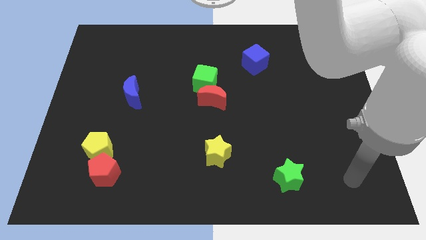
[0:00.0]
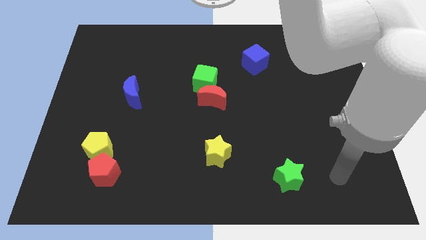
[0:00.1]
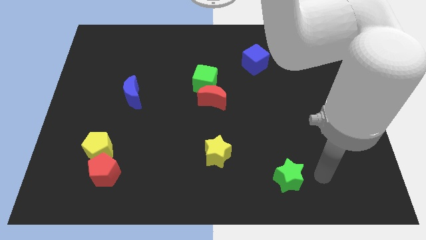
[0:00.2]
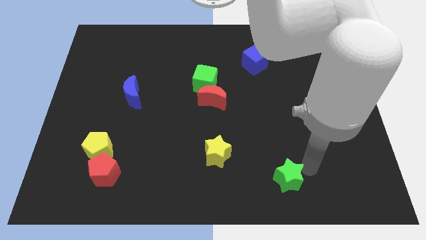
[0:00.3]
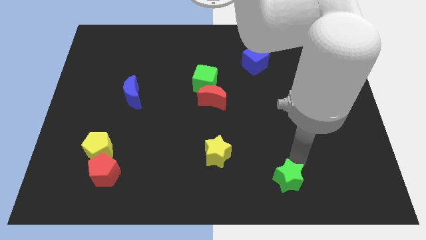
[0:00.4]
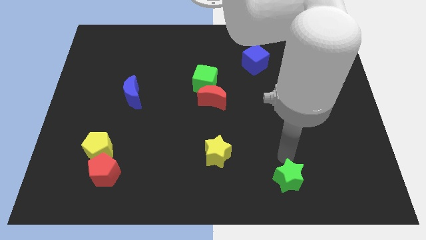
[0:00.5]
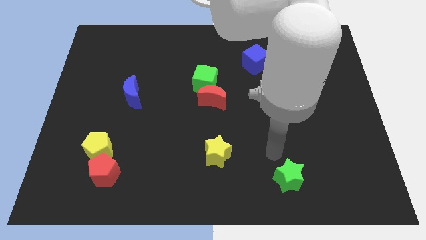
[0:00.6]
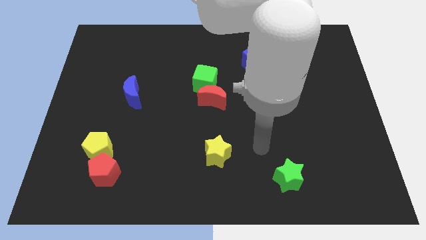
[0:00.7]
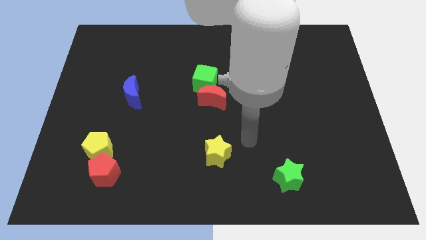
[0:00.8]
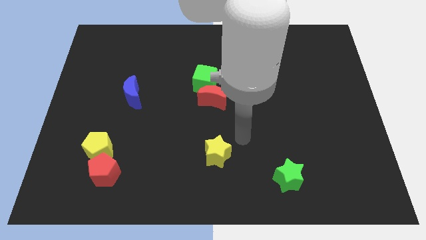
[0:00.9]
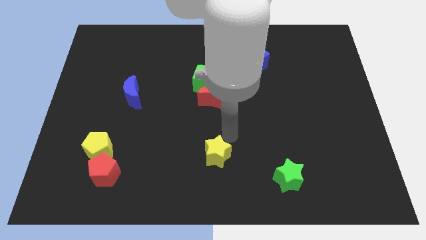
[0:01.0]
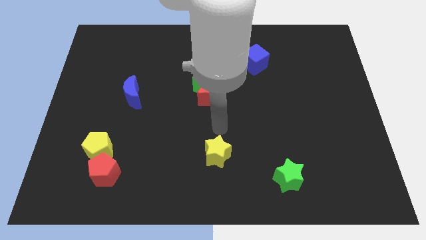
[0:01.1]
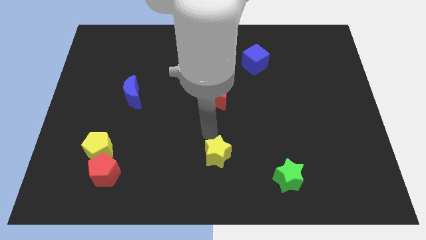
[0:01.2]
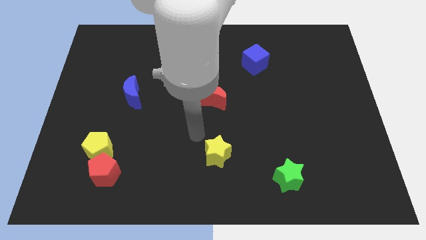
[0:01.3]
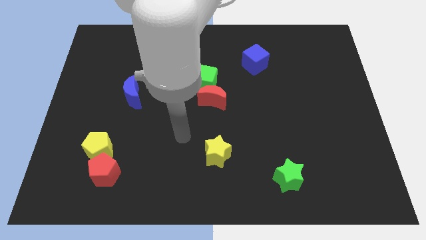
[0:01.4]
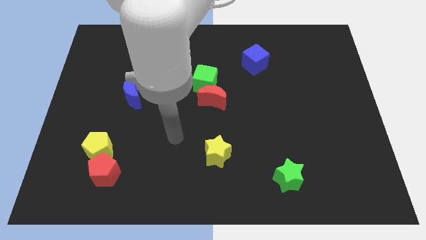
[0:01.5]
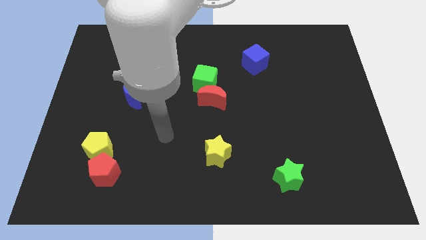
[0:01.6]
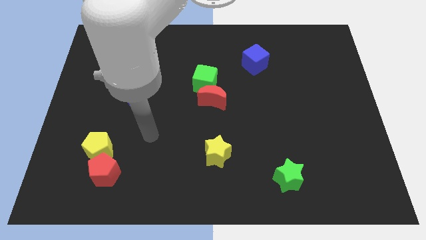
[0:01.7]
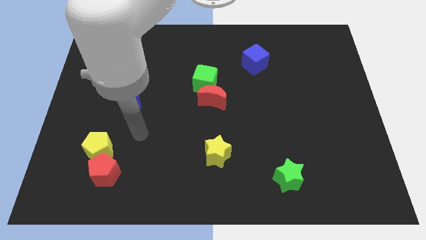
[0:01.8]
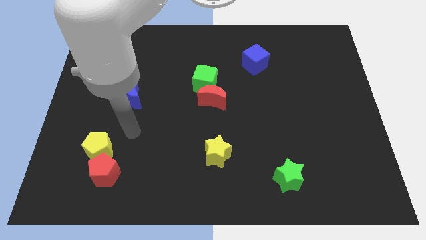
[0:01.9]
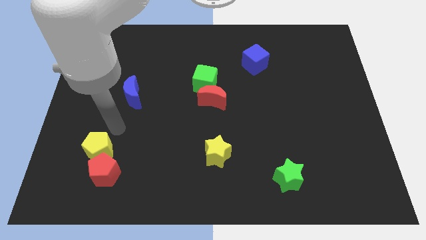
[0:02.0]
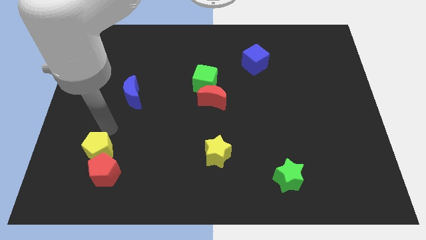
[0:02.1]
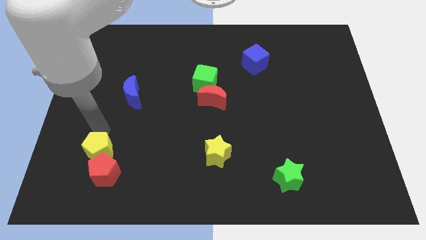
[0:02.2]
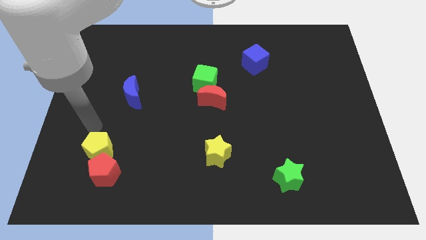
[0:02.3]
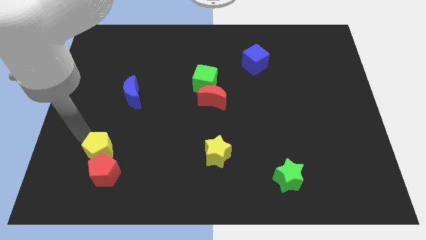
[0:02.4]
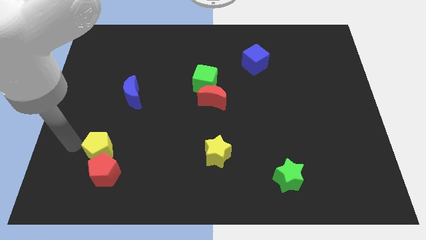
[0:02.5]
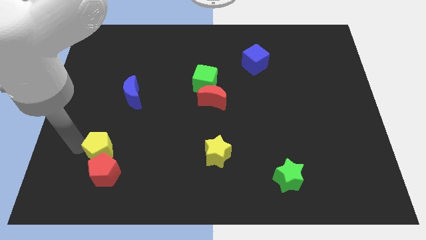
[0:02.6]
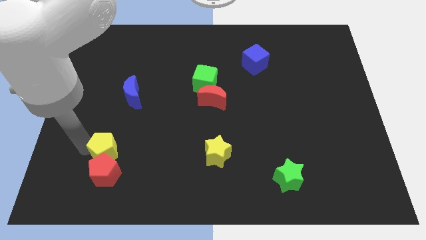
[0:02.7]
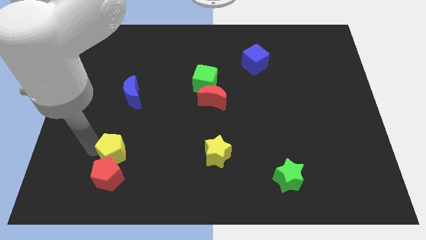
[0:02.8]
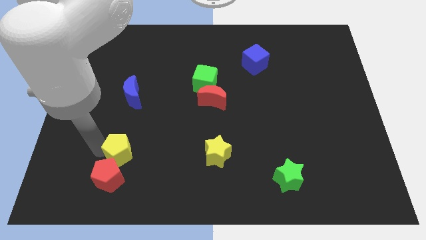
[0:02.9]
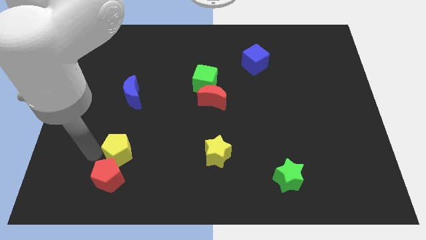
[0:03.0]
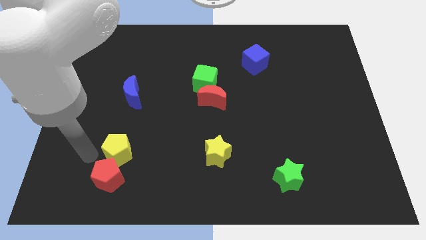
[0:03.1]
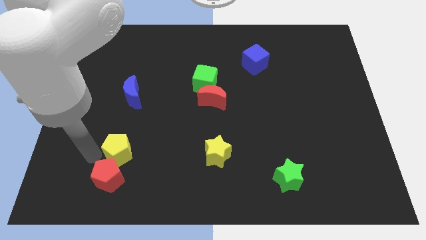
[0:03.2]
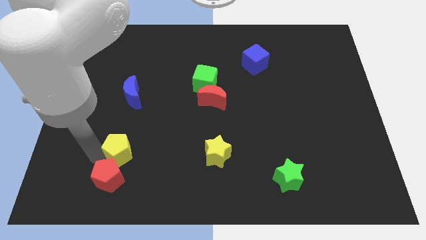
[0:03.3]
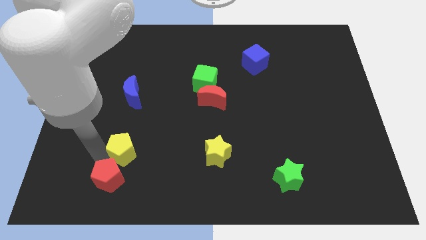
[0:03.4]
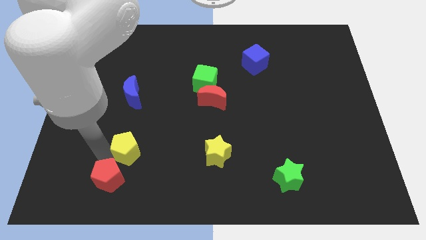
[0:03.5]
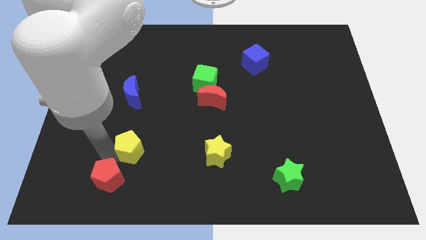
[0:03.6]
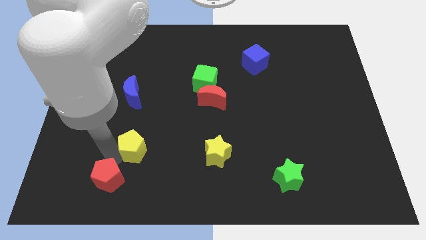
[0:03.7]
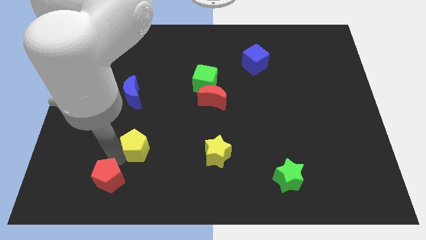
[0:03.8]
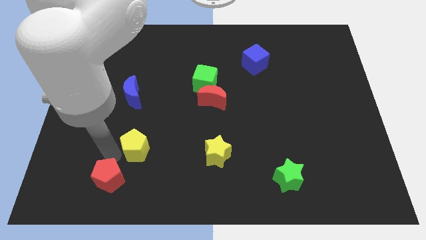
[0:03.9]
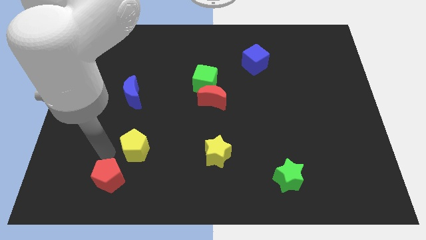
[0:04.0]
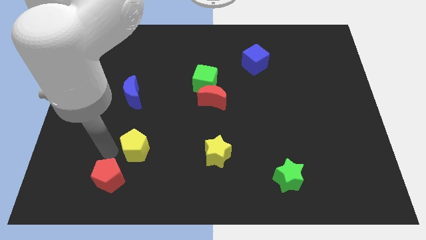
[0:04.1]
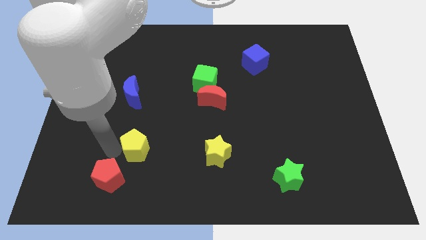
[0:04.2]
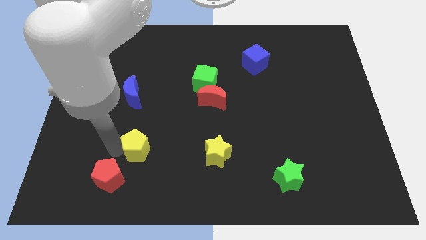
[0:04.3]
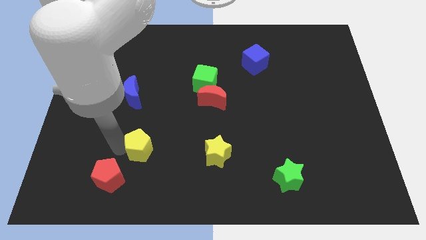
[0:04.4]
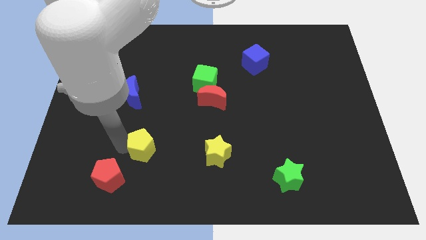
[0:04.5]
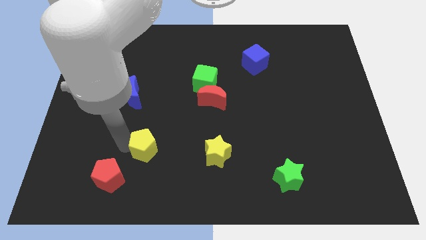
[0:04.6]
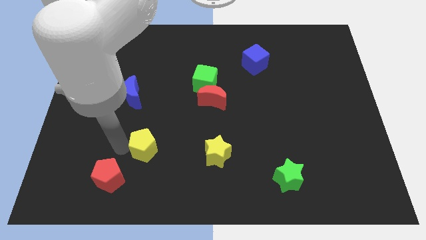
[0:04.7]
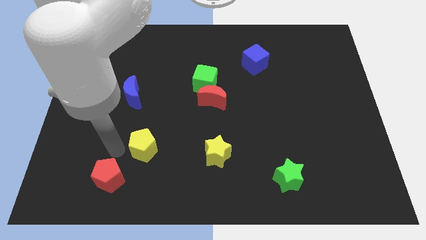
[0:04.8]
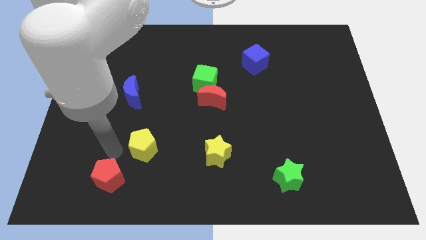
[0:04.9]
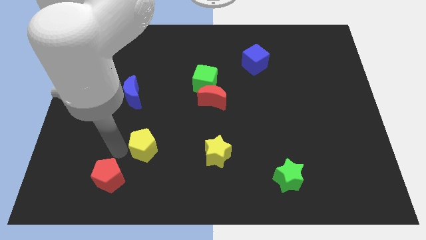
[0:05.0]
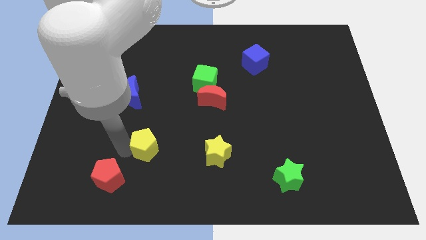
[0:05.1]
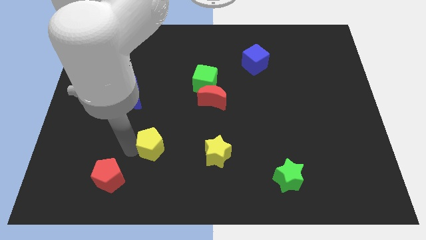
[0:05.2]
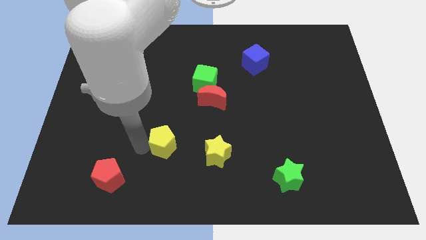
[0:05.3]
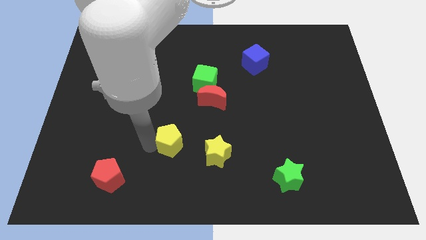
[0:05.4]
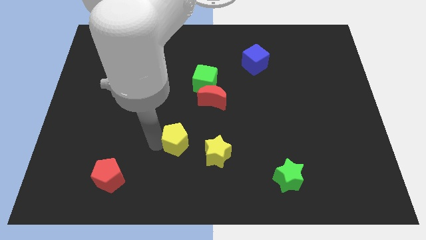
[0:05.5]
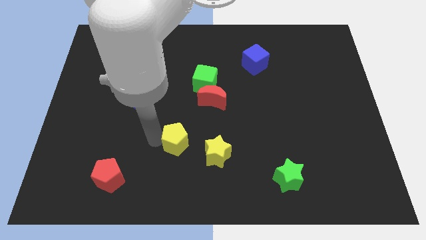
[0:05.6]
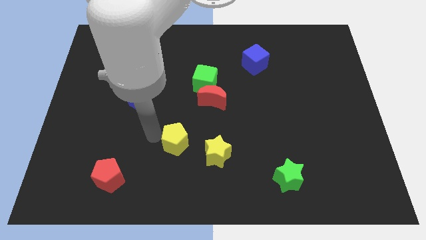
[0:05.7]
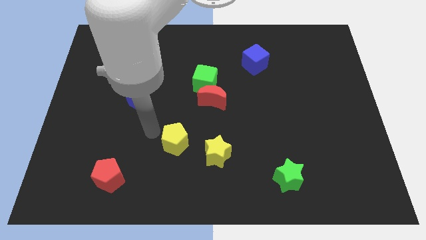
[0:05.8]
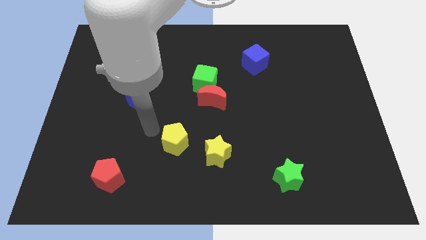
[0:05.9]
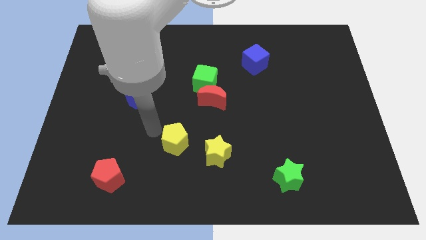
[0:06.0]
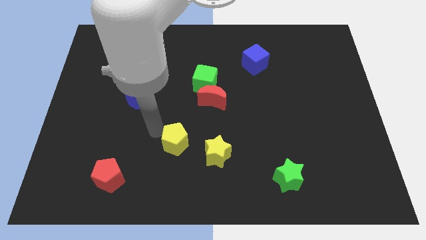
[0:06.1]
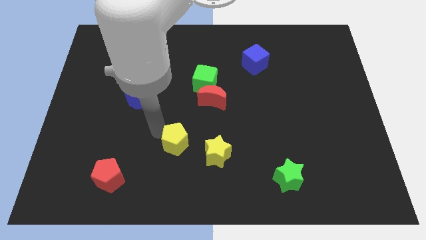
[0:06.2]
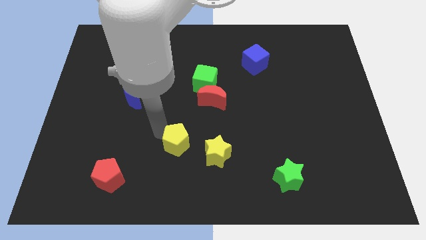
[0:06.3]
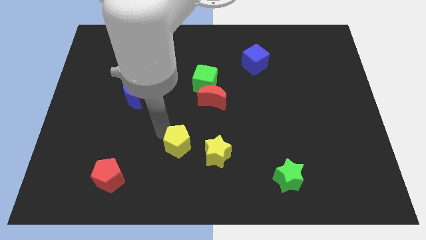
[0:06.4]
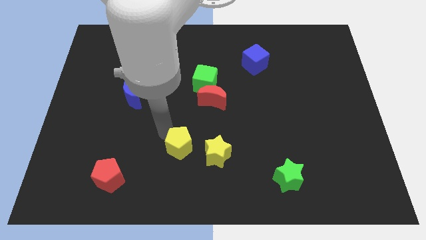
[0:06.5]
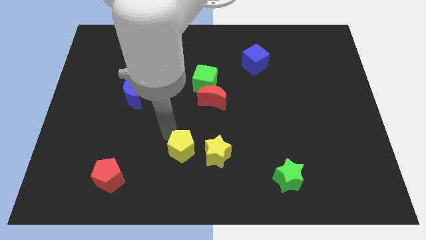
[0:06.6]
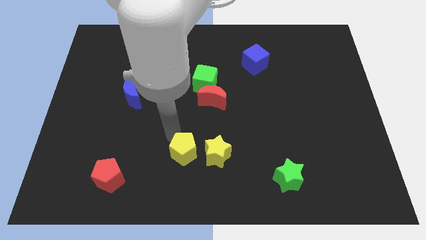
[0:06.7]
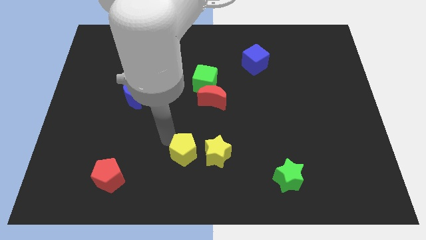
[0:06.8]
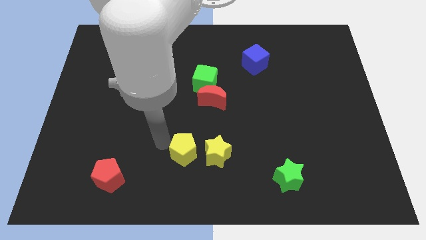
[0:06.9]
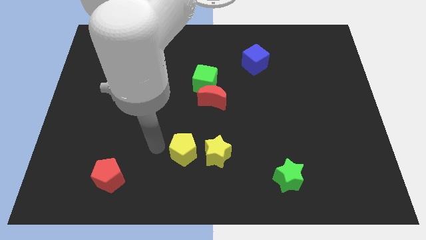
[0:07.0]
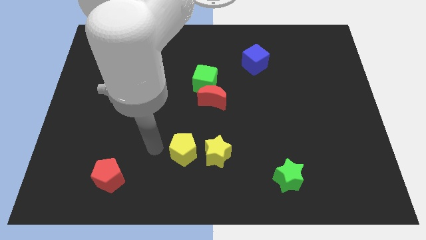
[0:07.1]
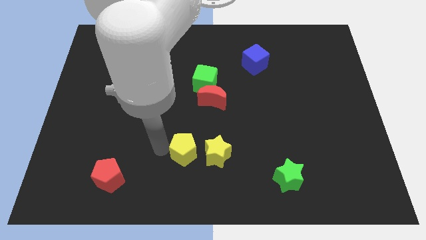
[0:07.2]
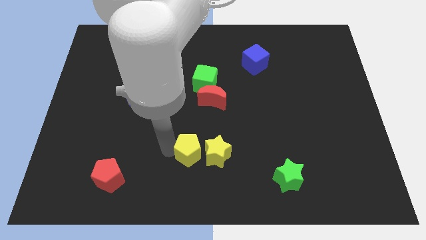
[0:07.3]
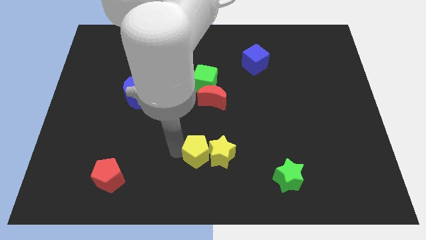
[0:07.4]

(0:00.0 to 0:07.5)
put the yellow pentagon close to the yellow star
